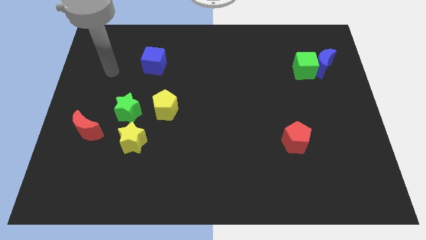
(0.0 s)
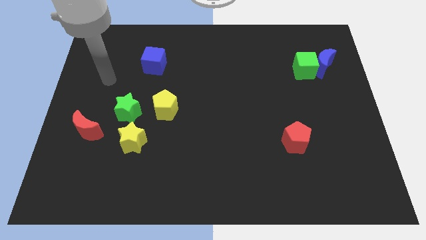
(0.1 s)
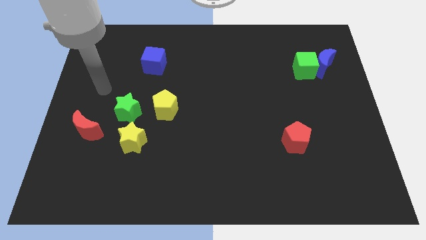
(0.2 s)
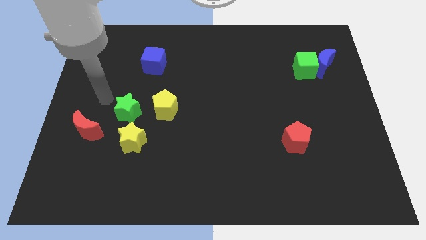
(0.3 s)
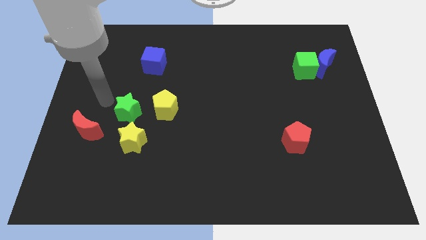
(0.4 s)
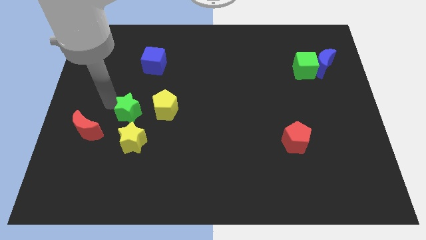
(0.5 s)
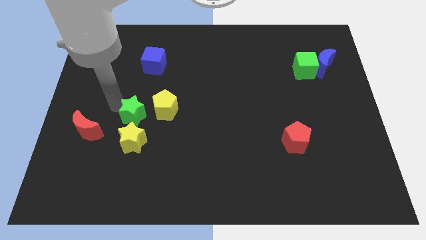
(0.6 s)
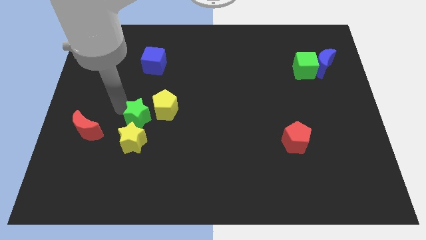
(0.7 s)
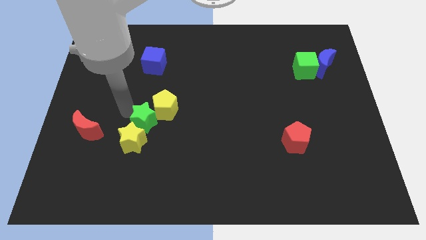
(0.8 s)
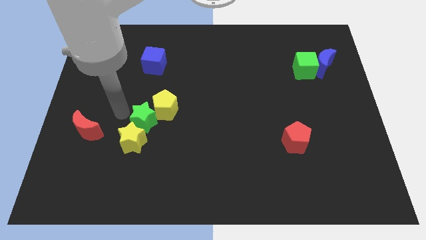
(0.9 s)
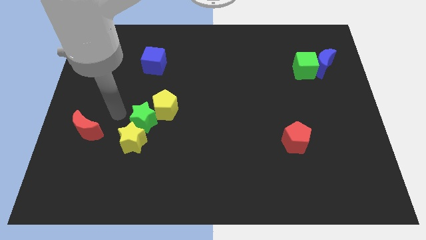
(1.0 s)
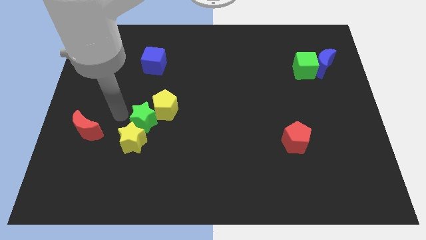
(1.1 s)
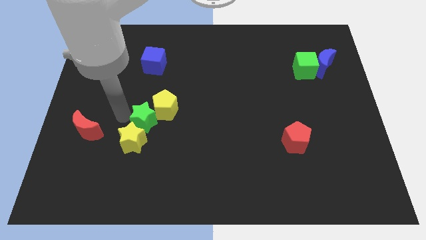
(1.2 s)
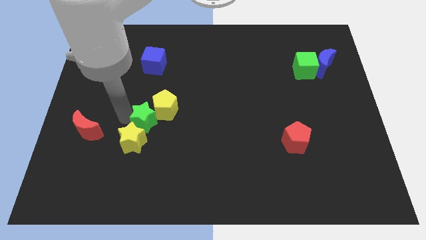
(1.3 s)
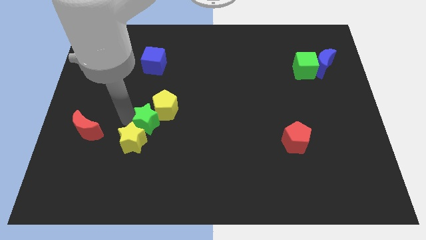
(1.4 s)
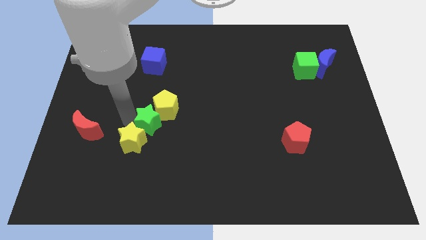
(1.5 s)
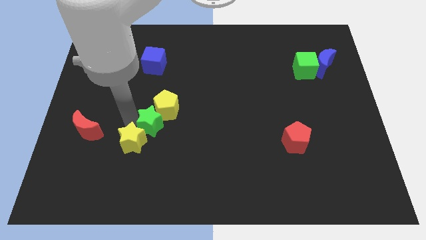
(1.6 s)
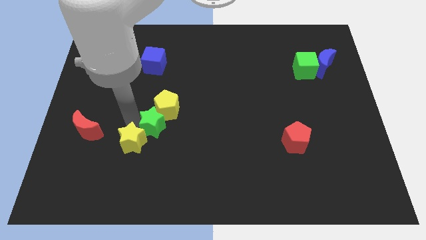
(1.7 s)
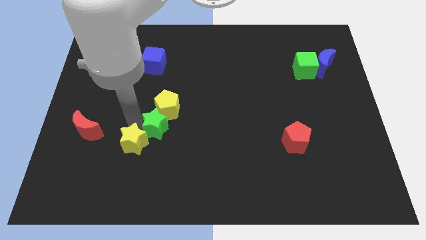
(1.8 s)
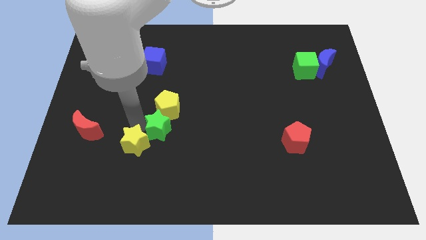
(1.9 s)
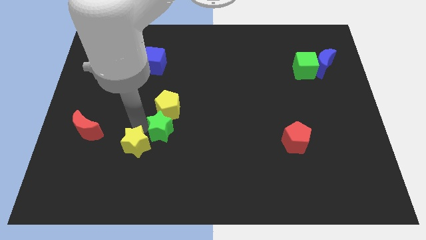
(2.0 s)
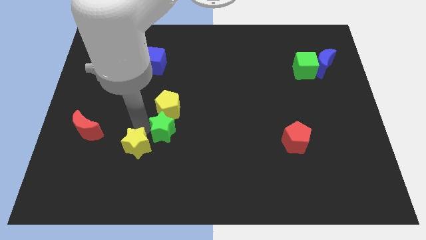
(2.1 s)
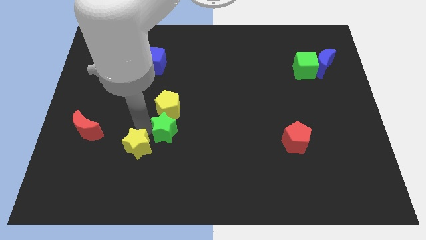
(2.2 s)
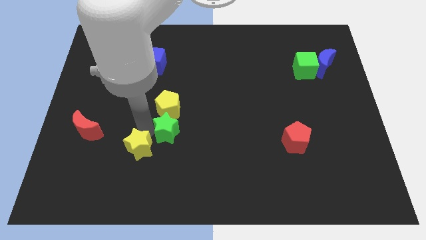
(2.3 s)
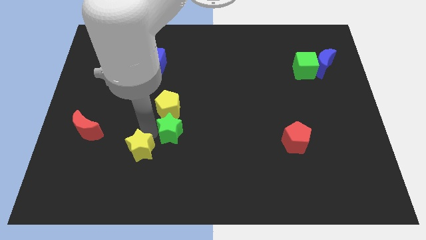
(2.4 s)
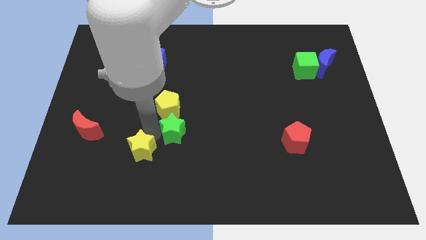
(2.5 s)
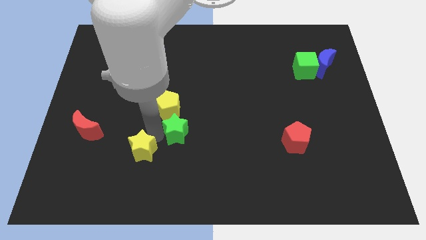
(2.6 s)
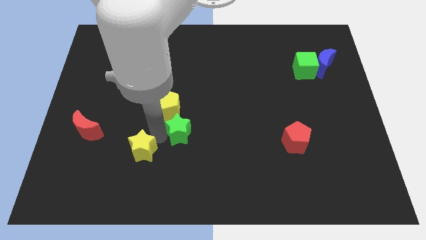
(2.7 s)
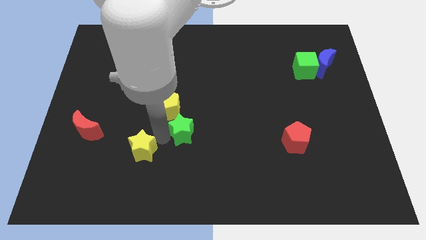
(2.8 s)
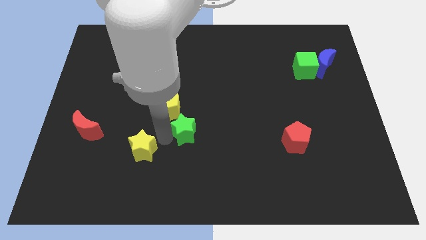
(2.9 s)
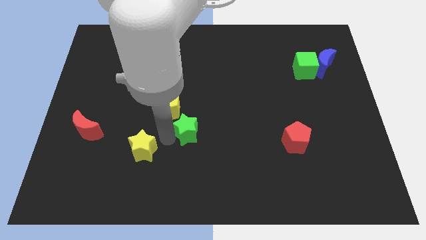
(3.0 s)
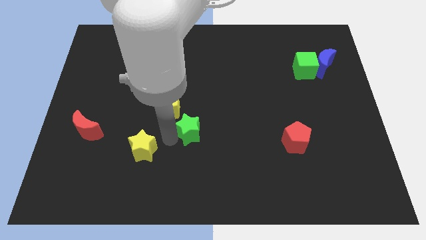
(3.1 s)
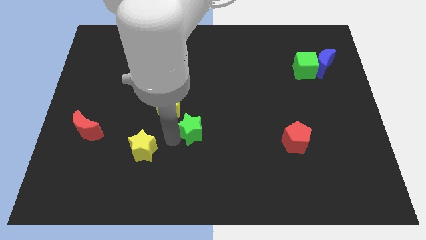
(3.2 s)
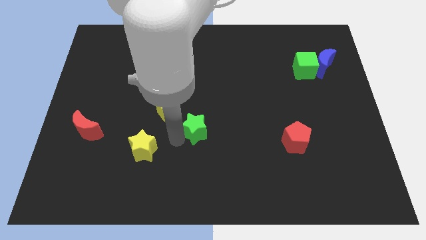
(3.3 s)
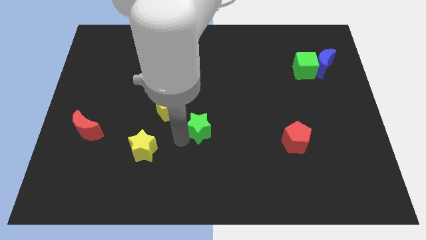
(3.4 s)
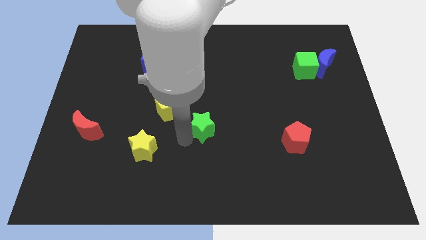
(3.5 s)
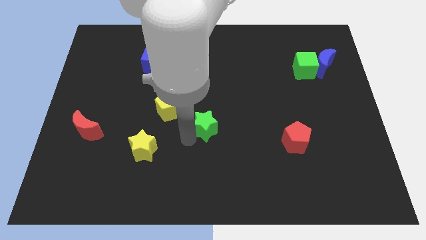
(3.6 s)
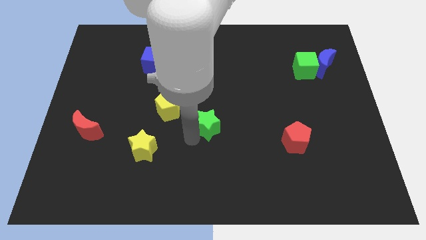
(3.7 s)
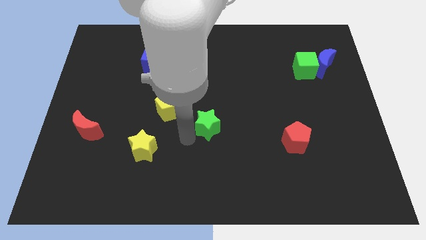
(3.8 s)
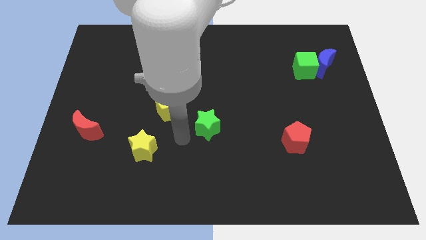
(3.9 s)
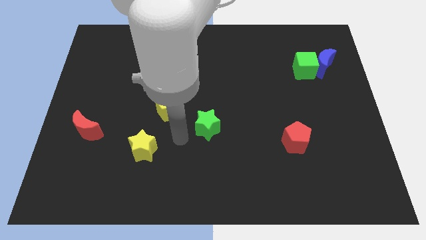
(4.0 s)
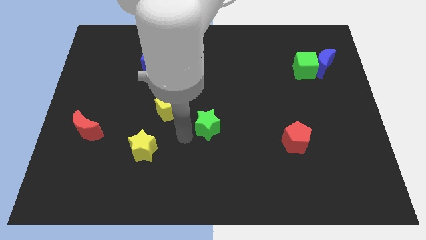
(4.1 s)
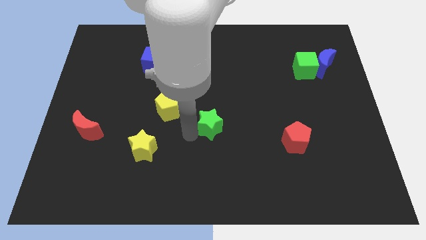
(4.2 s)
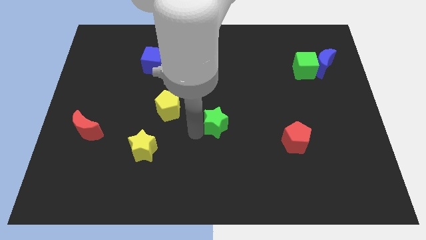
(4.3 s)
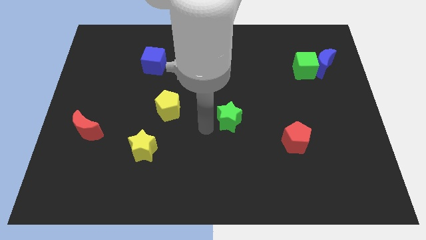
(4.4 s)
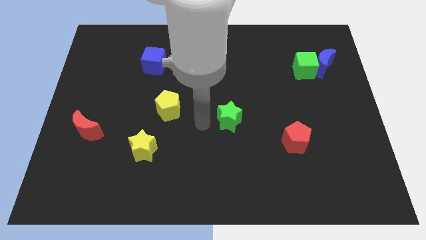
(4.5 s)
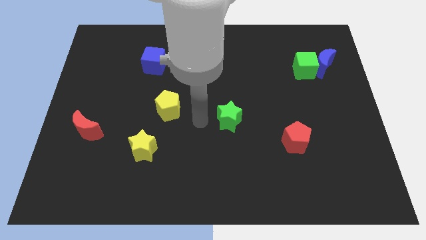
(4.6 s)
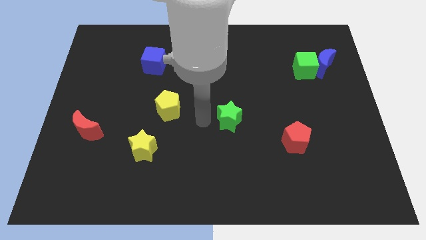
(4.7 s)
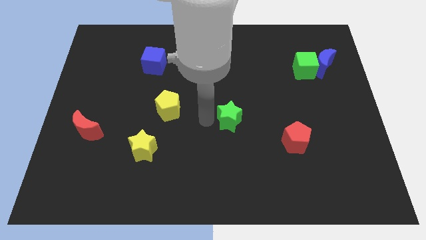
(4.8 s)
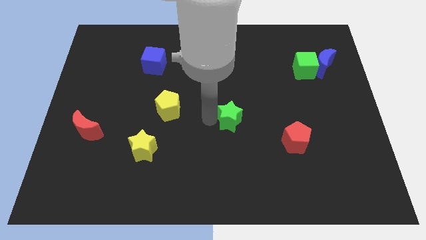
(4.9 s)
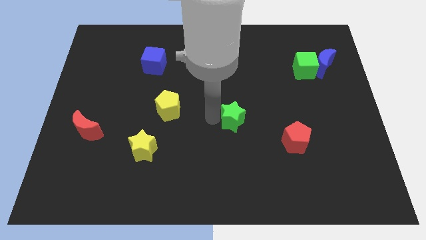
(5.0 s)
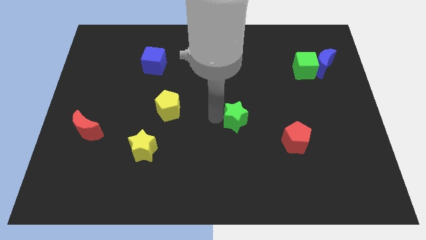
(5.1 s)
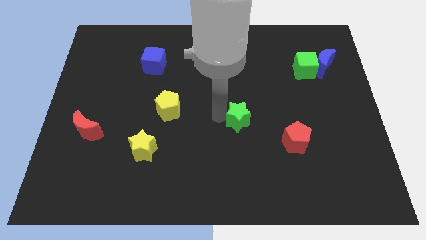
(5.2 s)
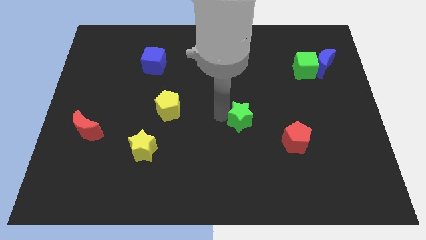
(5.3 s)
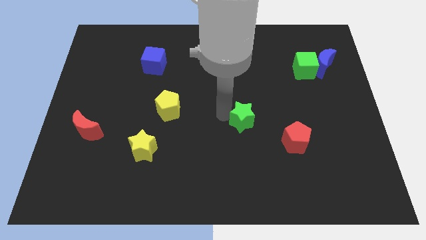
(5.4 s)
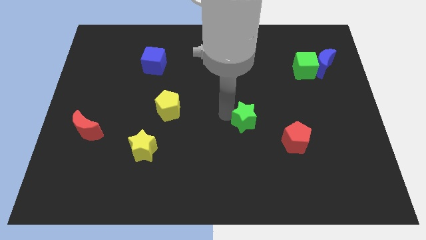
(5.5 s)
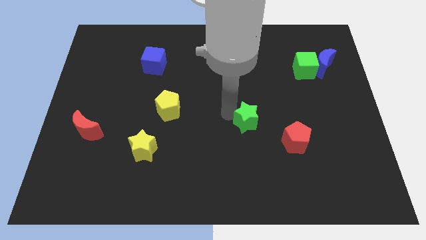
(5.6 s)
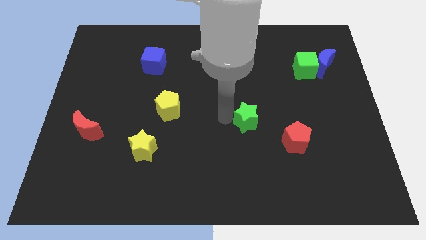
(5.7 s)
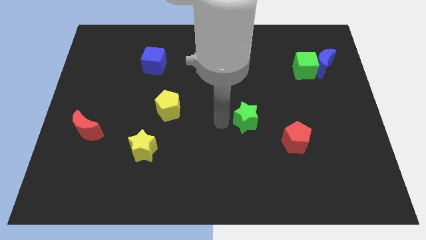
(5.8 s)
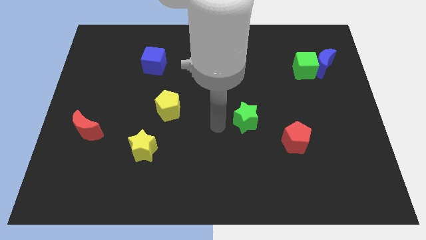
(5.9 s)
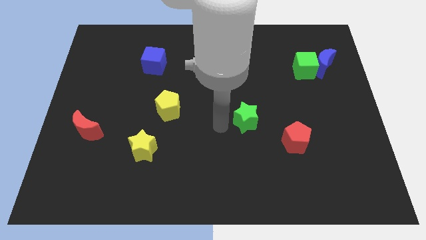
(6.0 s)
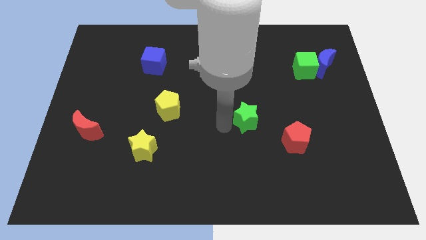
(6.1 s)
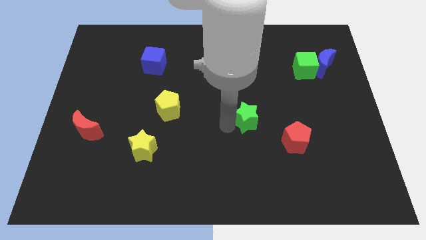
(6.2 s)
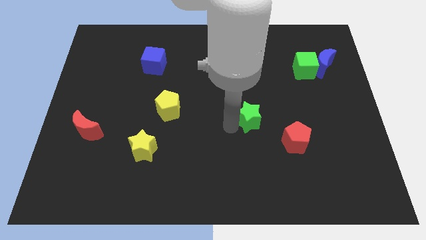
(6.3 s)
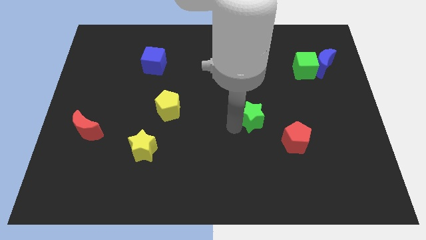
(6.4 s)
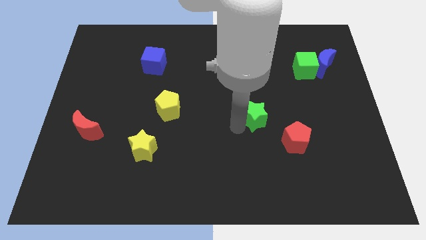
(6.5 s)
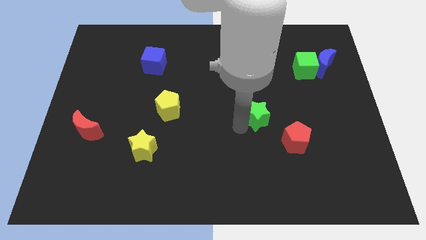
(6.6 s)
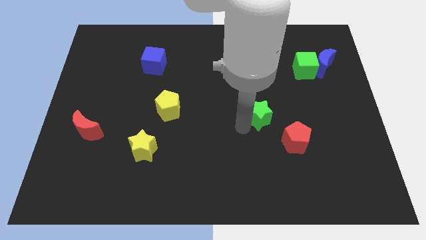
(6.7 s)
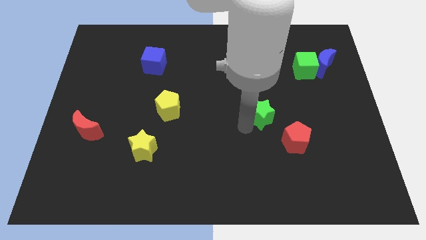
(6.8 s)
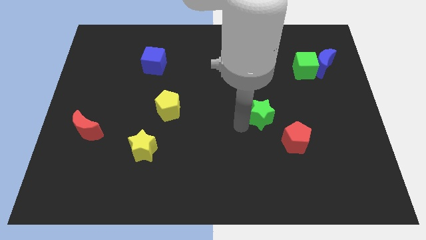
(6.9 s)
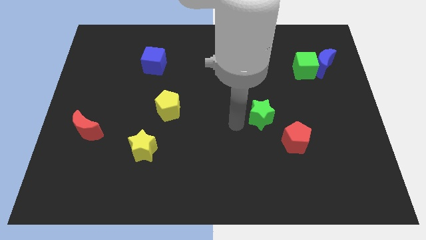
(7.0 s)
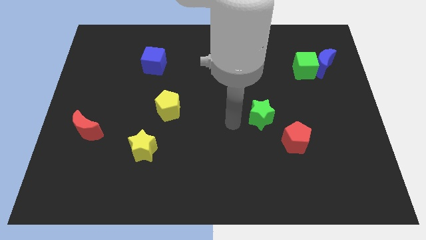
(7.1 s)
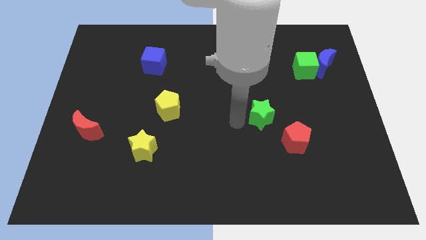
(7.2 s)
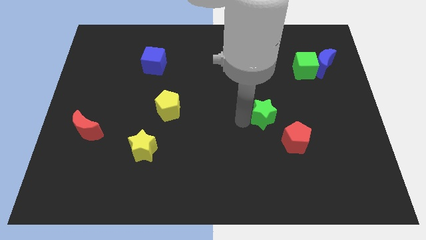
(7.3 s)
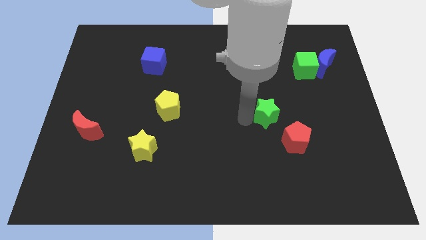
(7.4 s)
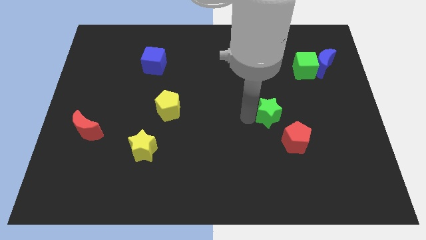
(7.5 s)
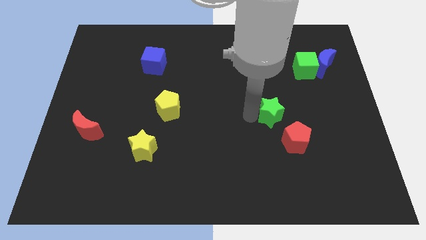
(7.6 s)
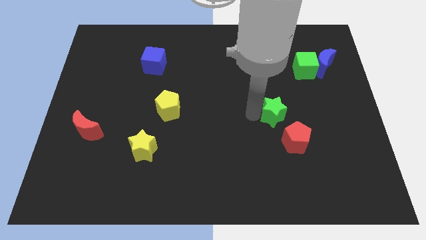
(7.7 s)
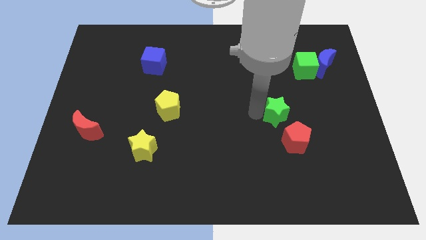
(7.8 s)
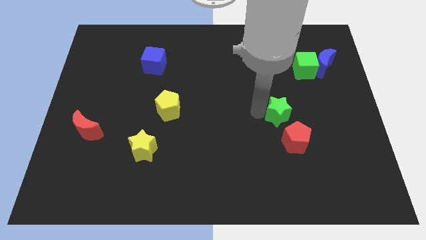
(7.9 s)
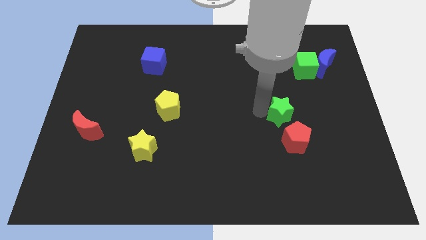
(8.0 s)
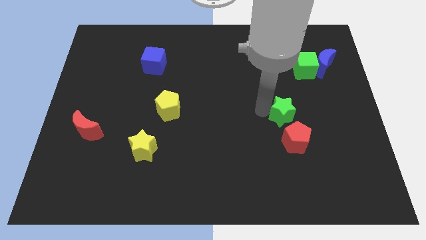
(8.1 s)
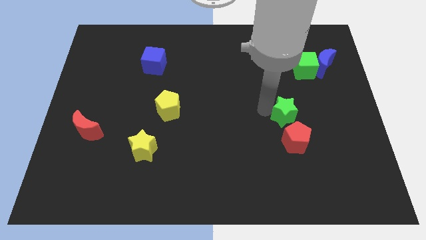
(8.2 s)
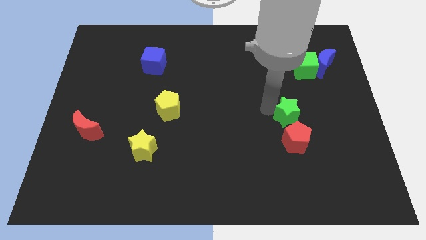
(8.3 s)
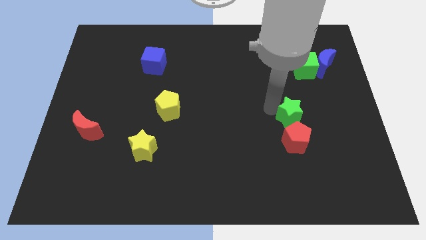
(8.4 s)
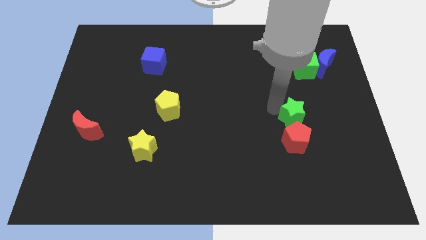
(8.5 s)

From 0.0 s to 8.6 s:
push the green star diagonally up and to the right of the red pentagon
